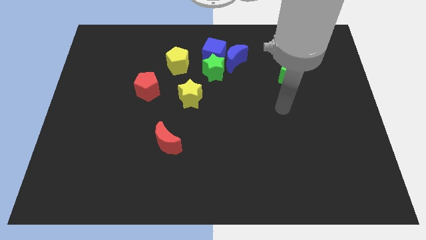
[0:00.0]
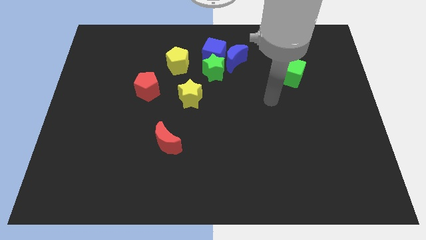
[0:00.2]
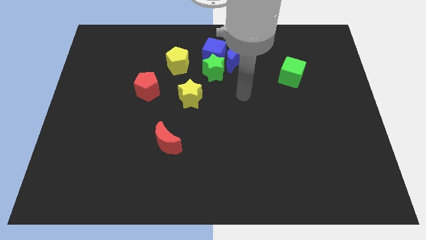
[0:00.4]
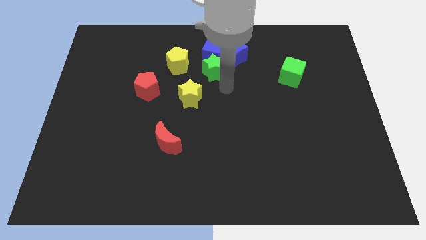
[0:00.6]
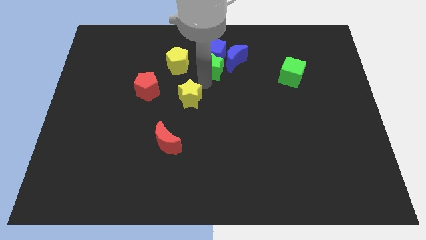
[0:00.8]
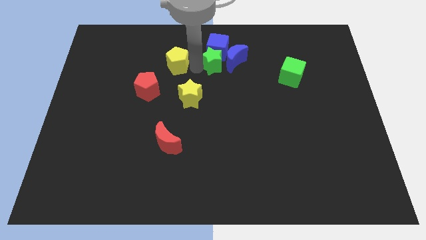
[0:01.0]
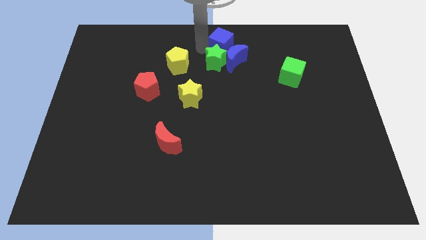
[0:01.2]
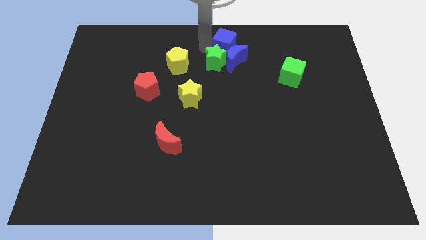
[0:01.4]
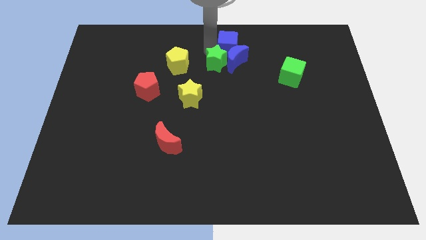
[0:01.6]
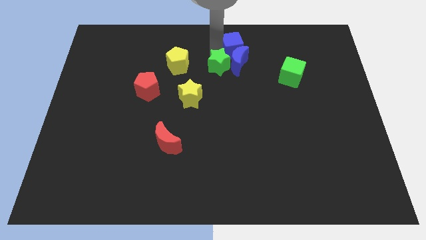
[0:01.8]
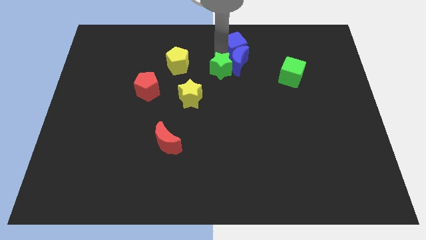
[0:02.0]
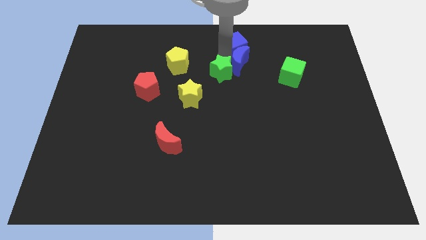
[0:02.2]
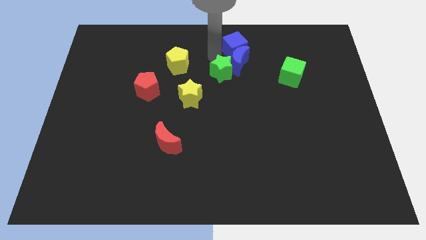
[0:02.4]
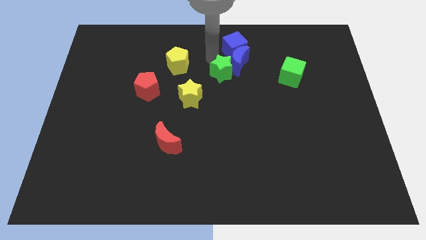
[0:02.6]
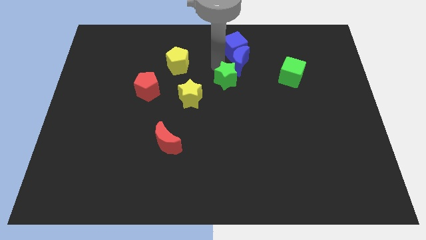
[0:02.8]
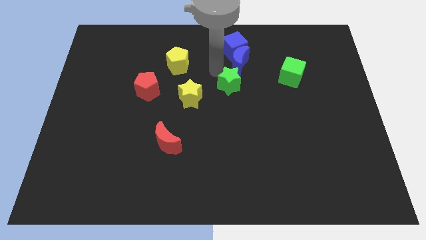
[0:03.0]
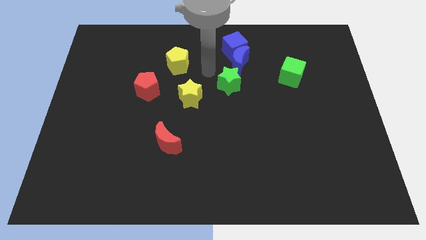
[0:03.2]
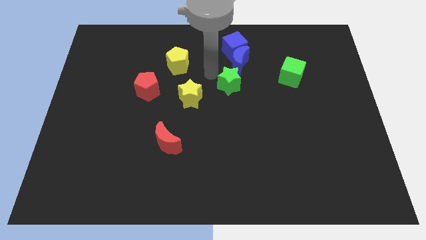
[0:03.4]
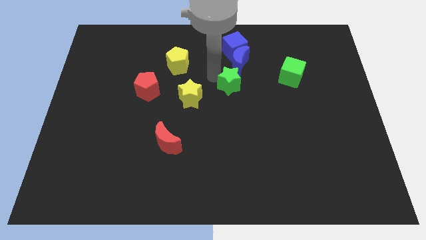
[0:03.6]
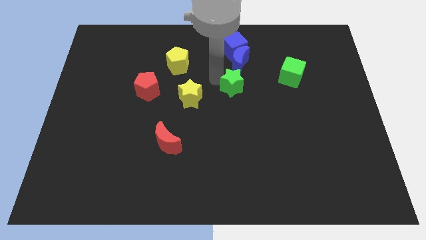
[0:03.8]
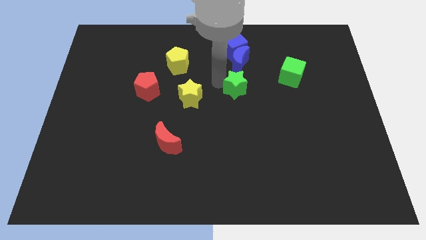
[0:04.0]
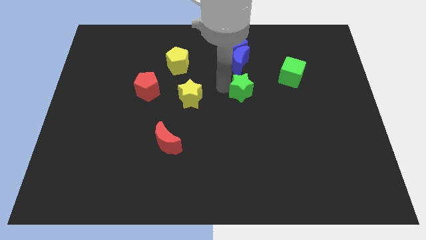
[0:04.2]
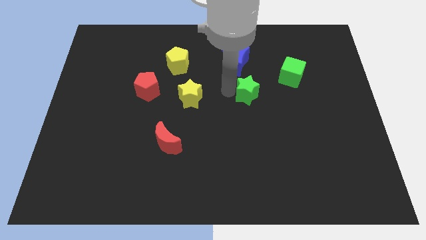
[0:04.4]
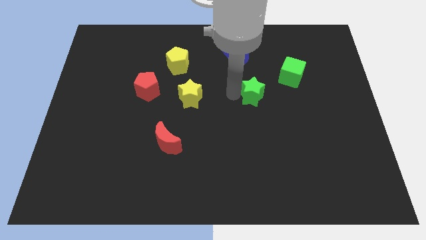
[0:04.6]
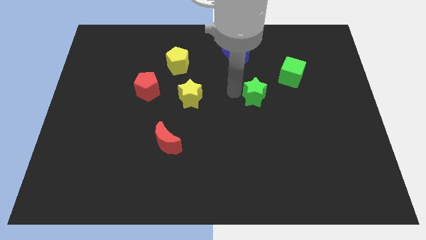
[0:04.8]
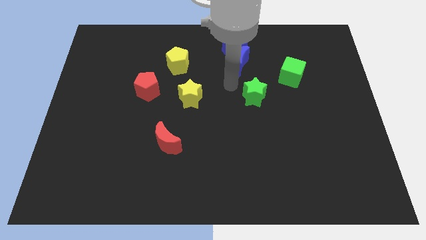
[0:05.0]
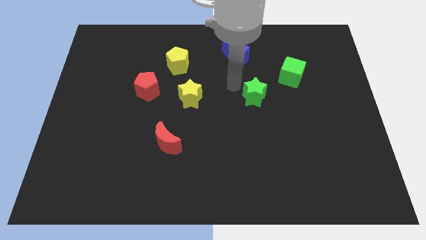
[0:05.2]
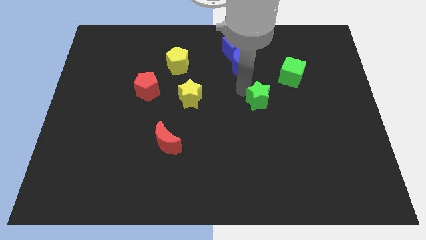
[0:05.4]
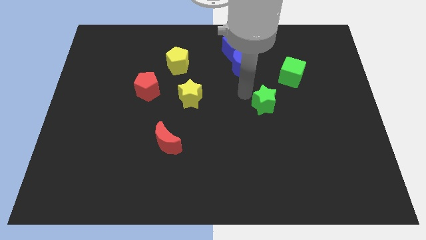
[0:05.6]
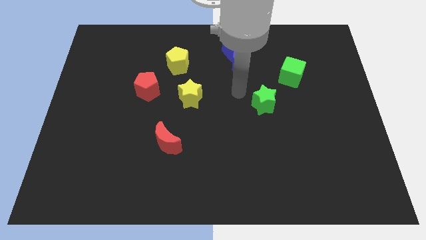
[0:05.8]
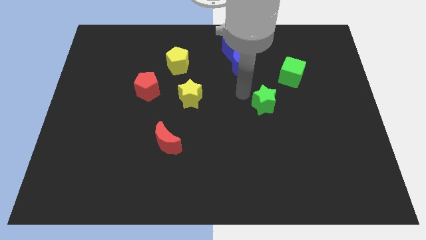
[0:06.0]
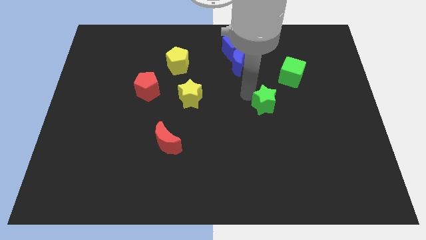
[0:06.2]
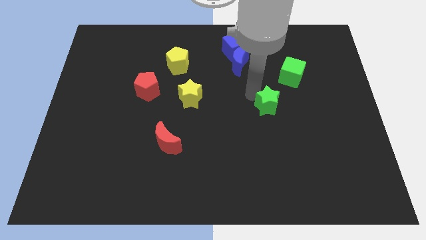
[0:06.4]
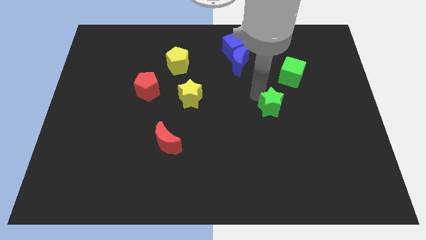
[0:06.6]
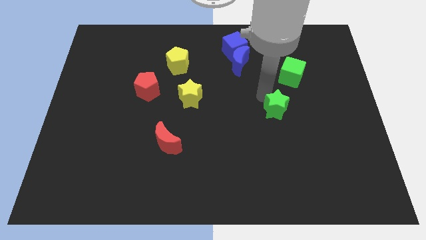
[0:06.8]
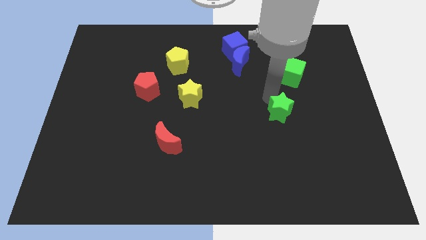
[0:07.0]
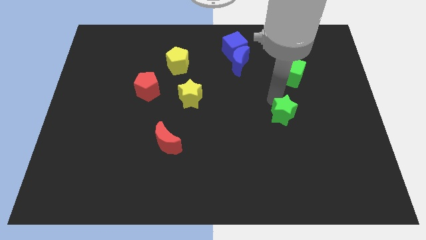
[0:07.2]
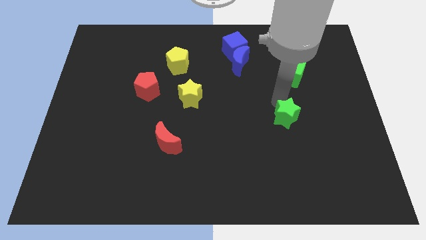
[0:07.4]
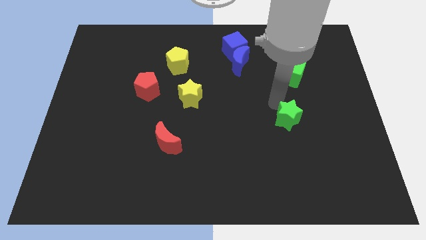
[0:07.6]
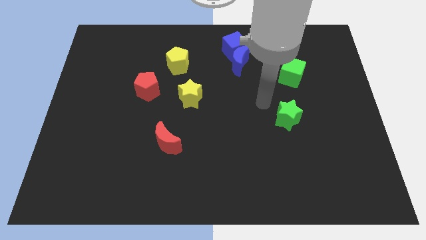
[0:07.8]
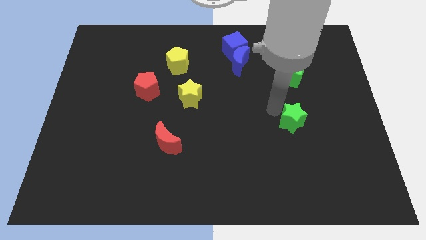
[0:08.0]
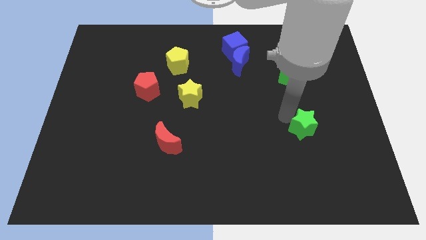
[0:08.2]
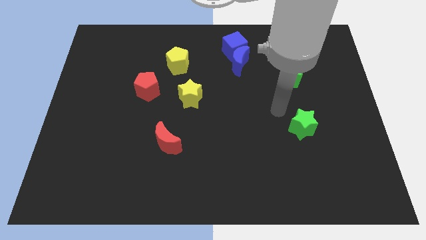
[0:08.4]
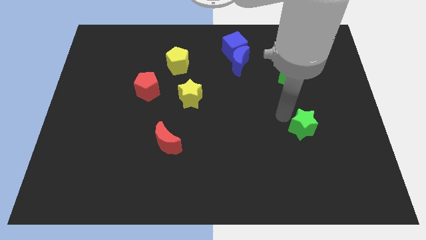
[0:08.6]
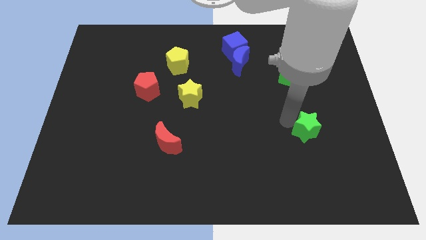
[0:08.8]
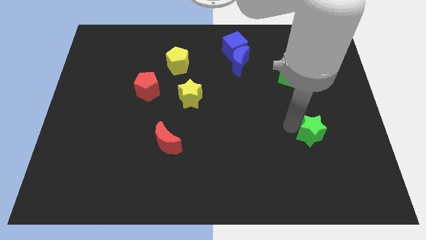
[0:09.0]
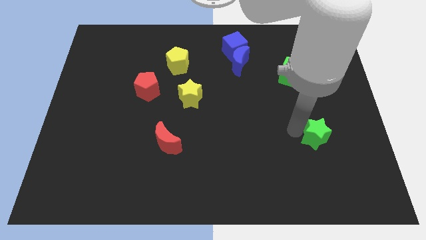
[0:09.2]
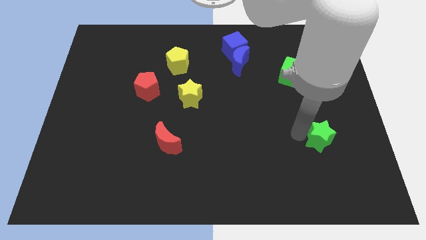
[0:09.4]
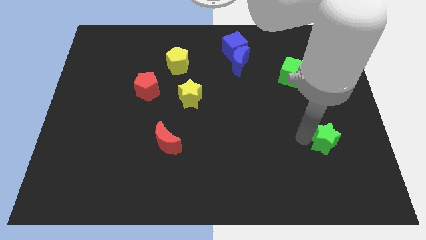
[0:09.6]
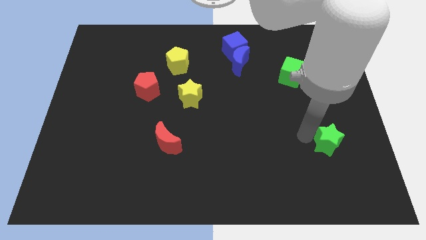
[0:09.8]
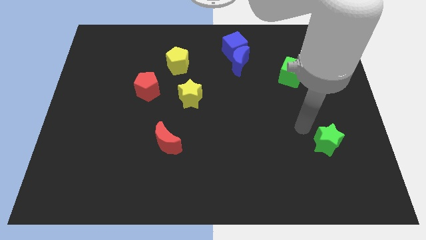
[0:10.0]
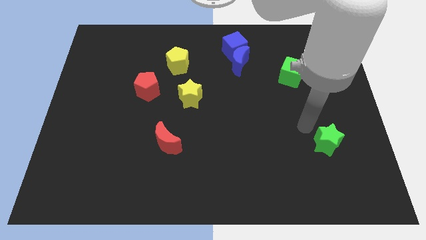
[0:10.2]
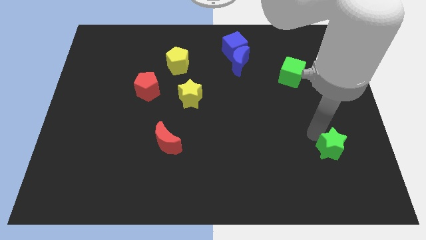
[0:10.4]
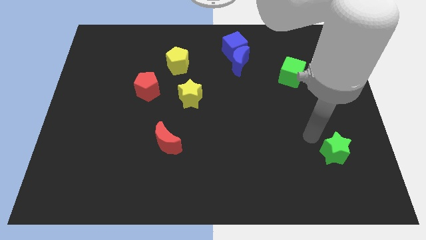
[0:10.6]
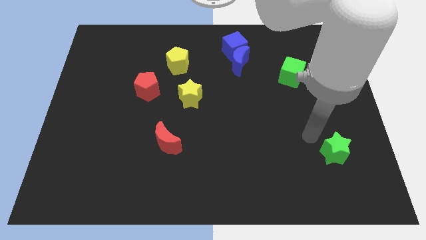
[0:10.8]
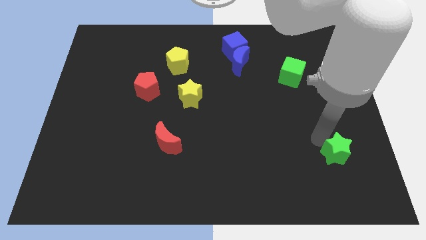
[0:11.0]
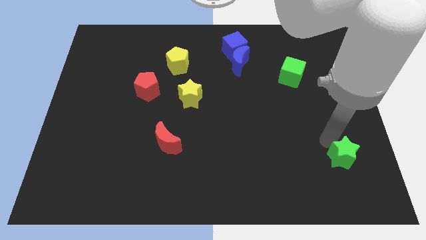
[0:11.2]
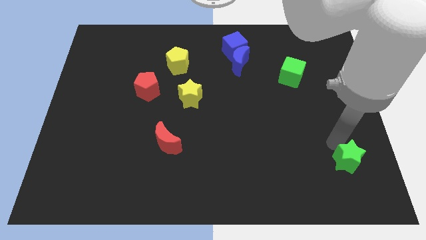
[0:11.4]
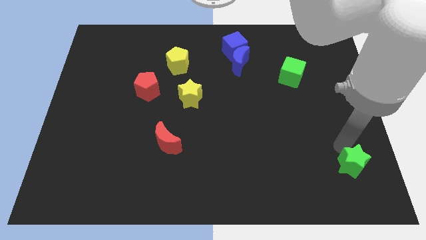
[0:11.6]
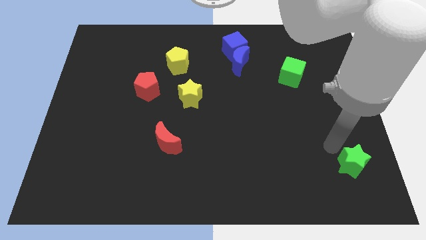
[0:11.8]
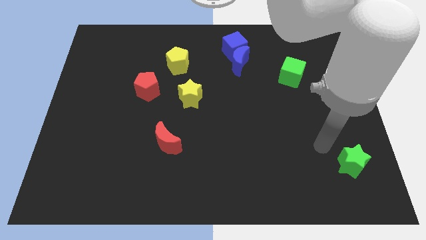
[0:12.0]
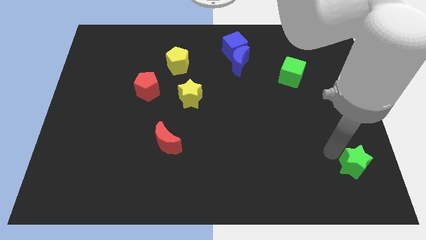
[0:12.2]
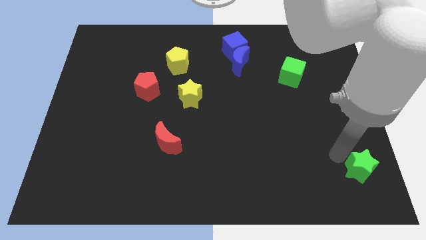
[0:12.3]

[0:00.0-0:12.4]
slide the green star to the bottom right of the board
